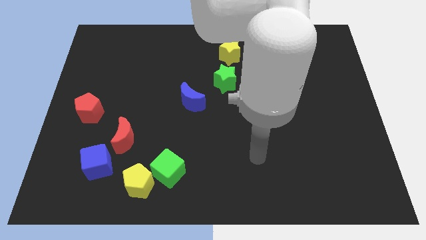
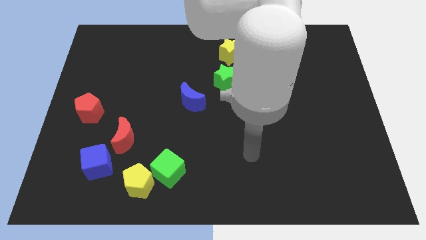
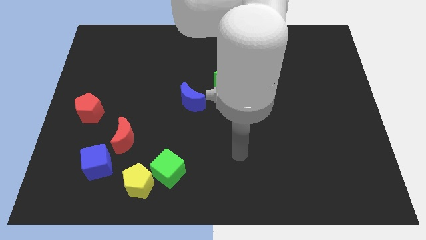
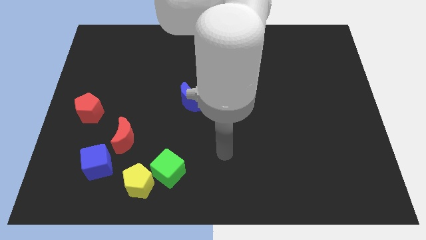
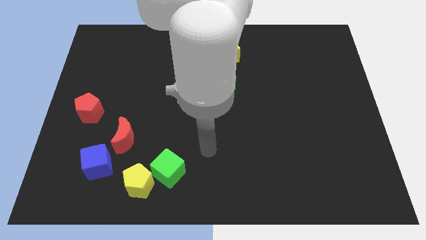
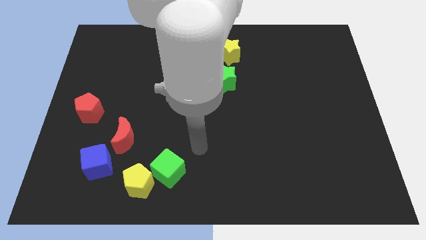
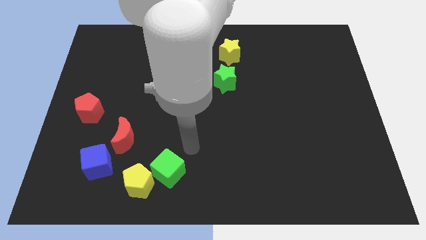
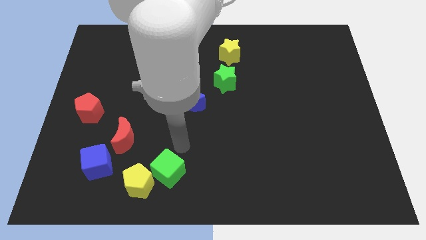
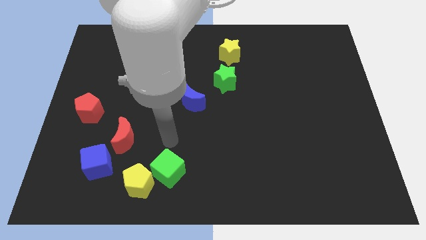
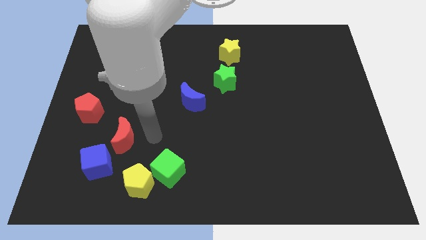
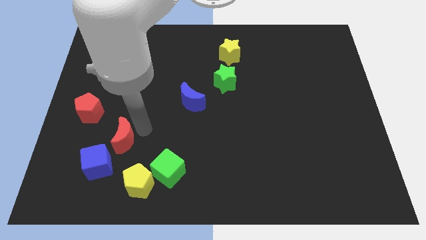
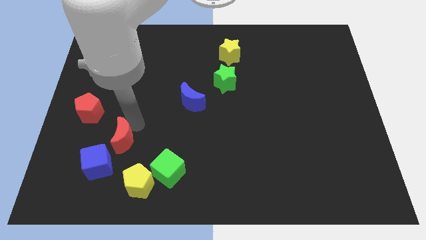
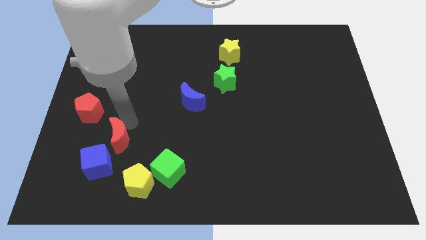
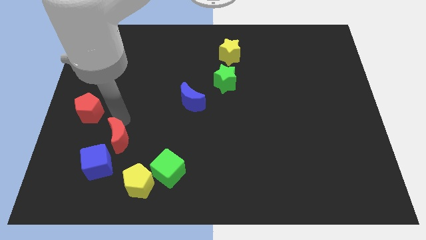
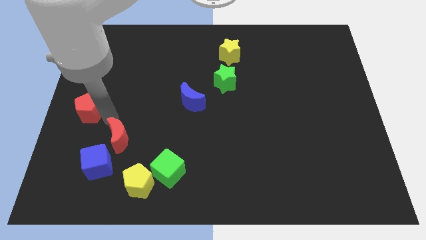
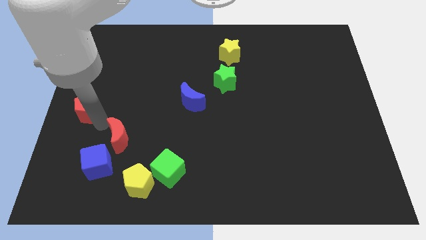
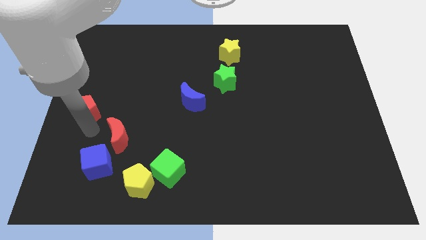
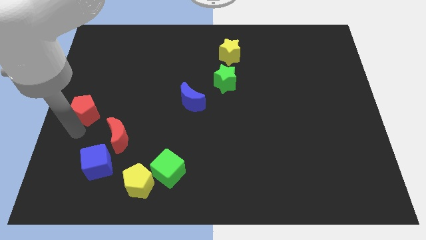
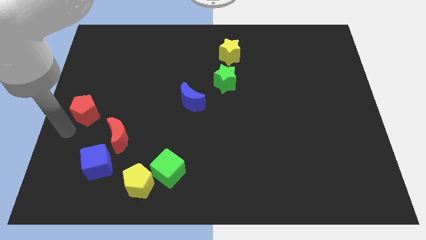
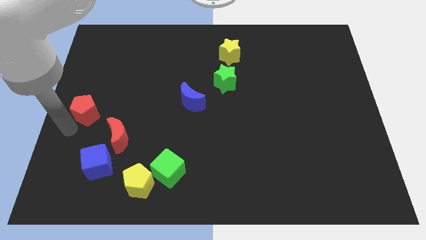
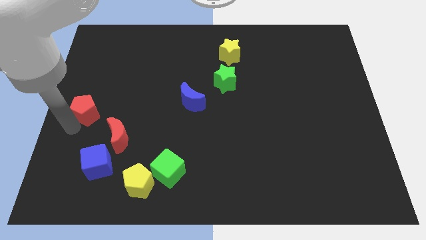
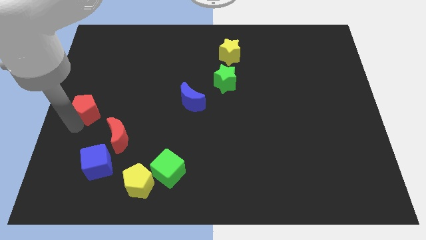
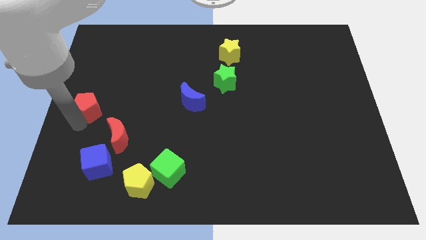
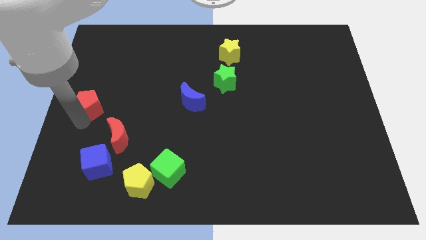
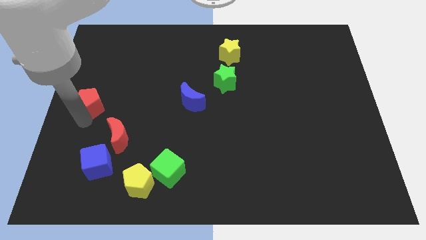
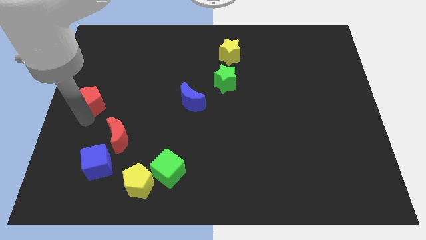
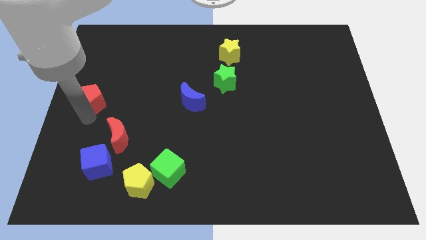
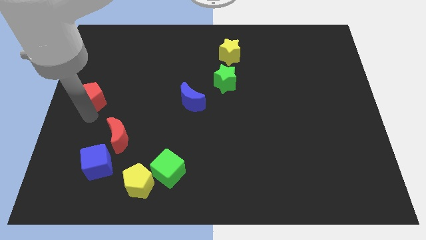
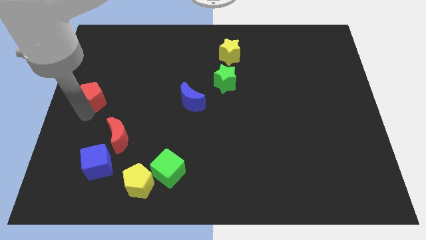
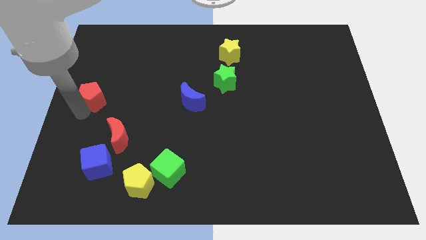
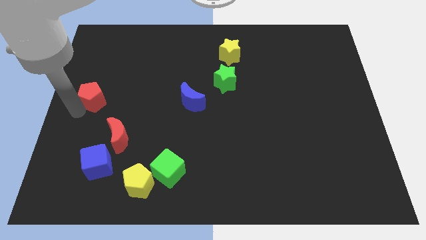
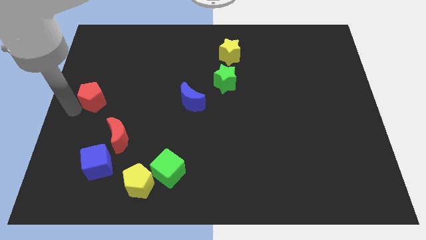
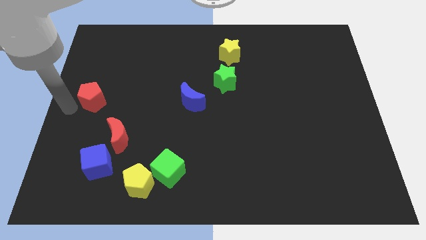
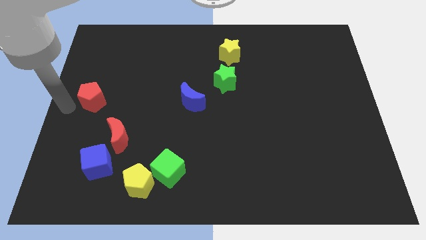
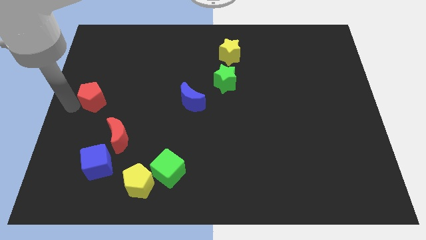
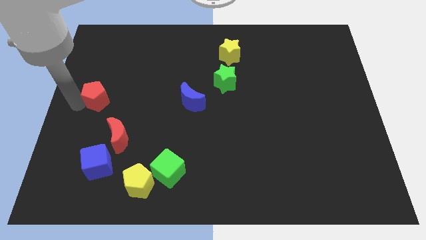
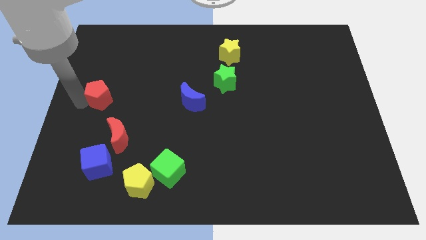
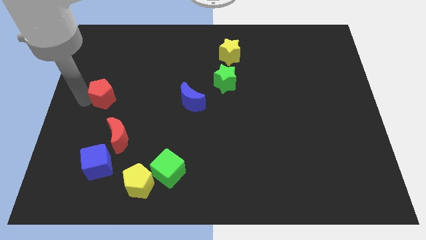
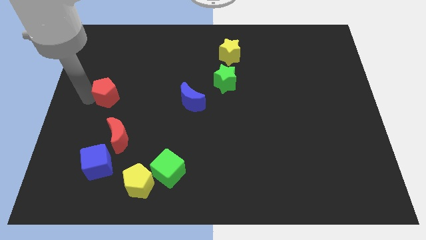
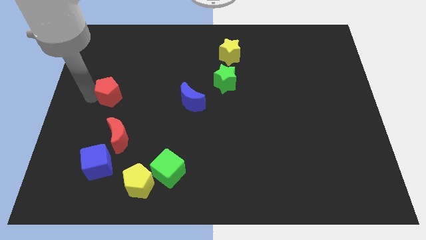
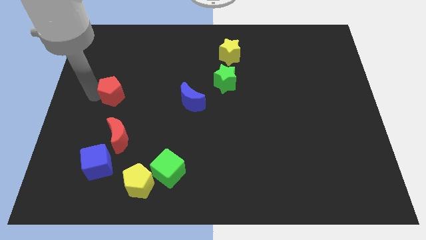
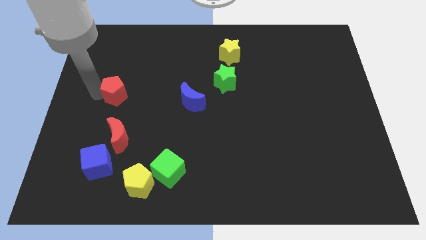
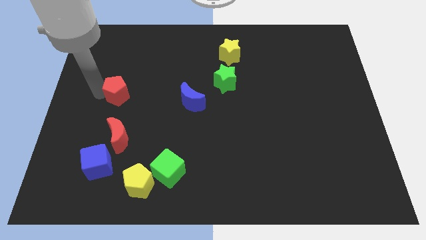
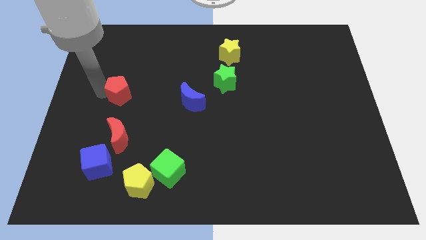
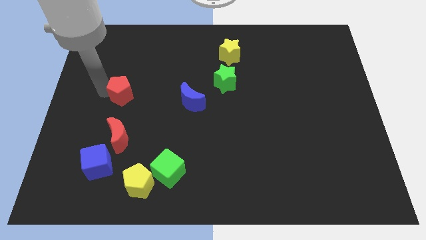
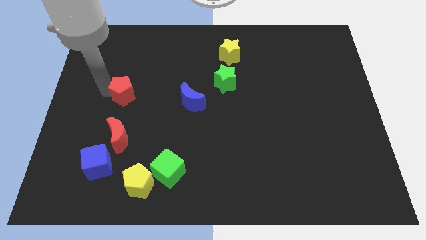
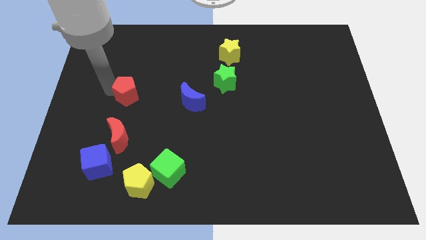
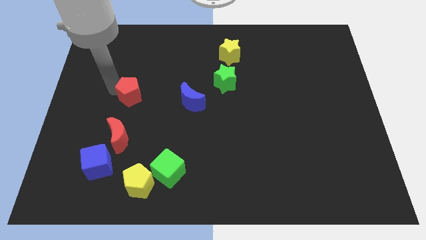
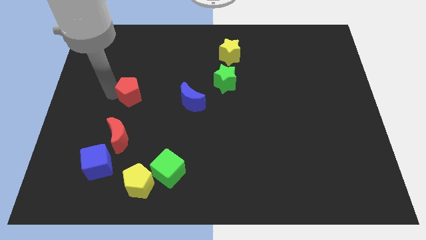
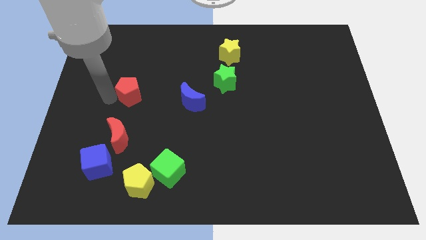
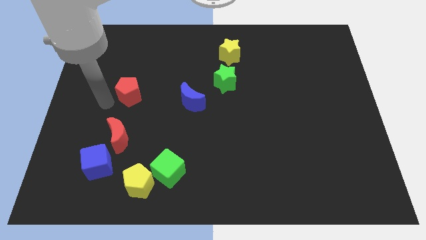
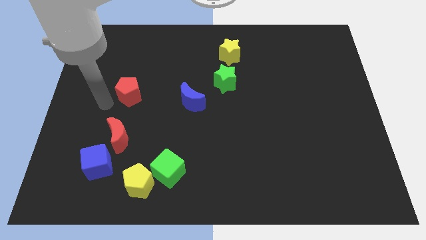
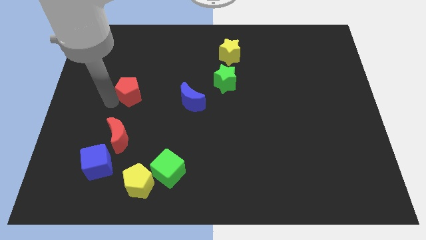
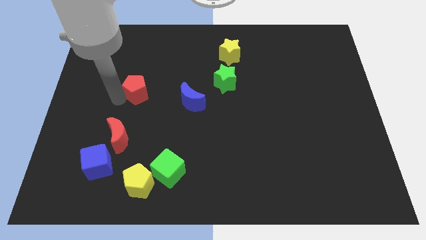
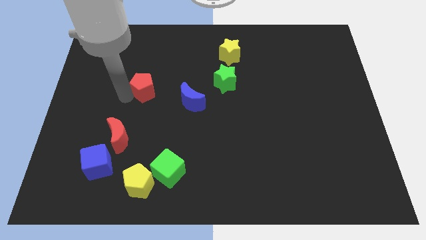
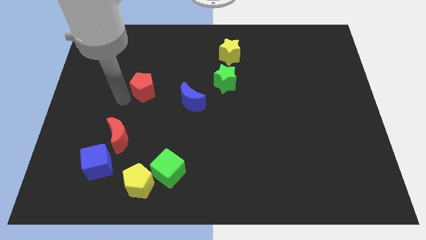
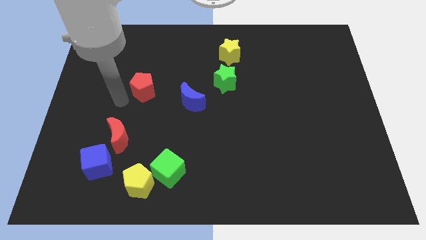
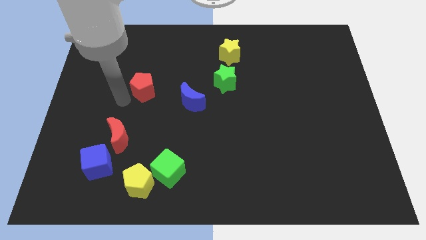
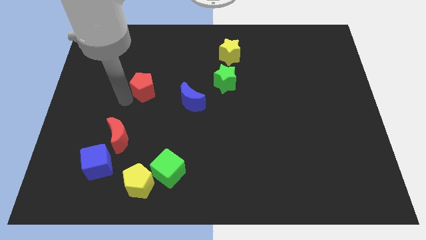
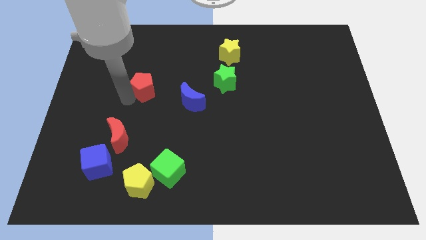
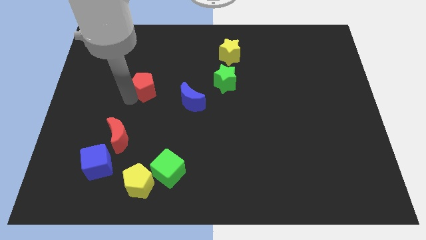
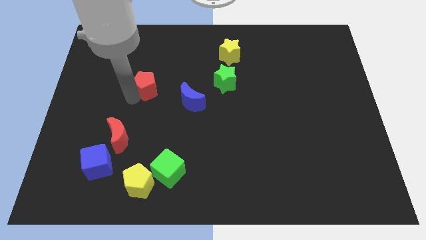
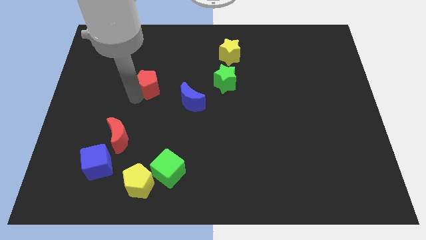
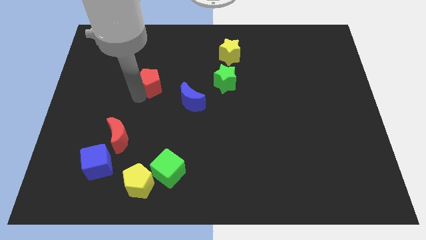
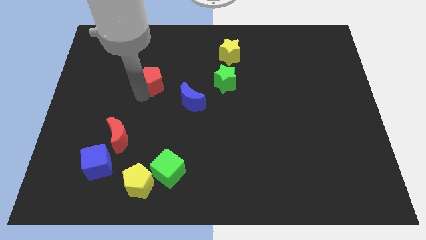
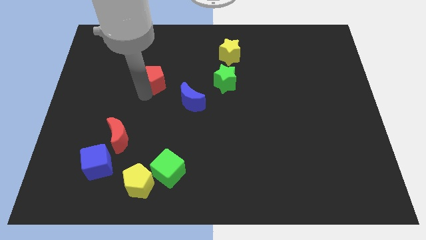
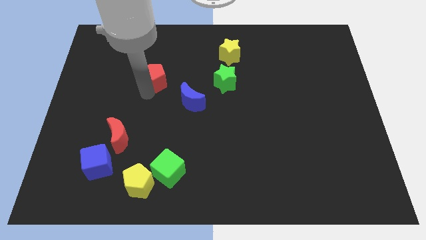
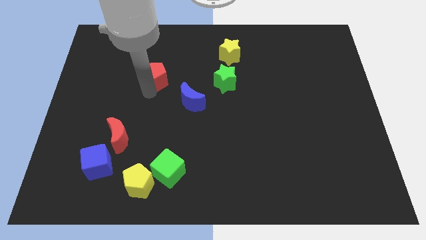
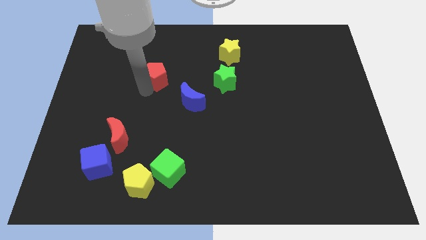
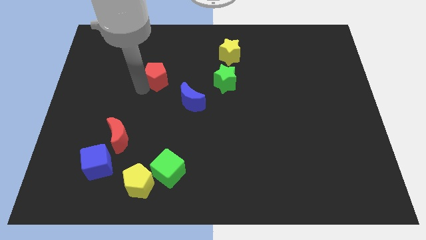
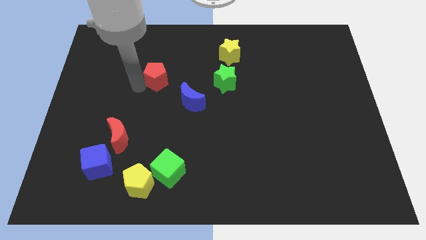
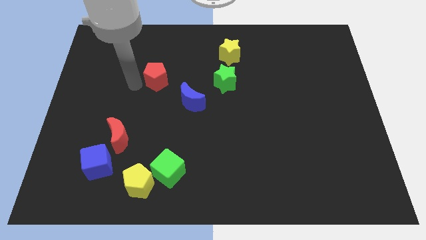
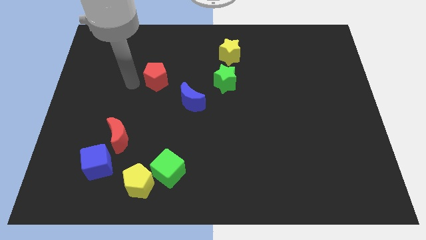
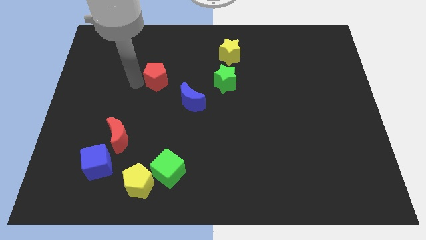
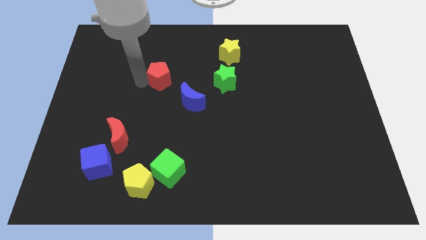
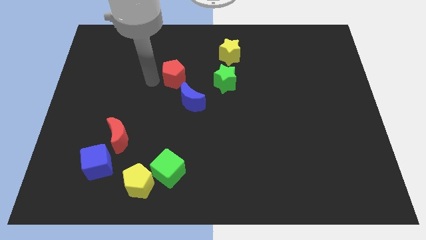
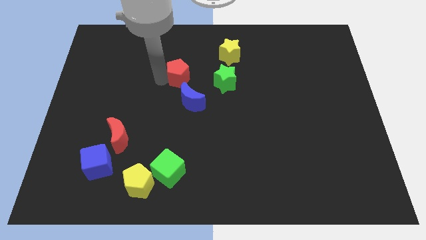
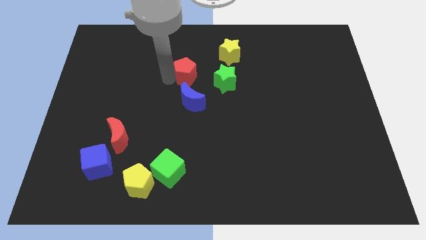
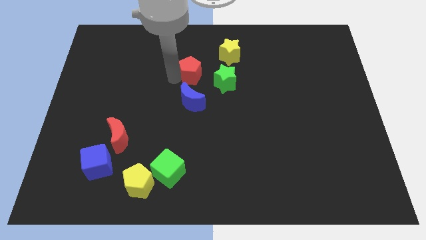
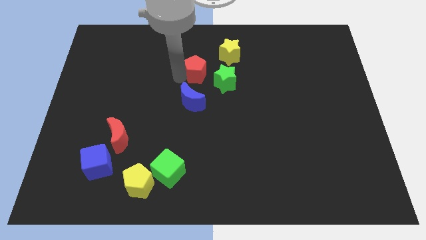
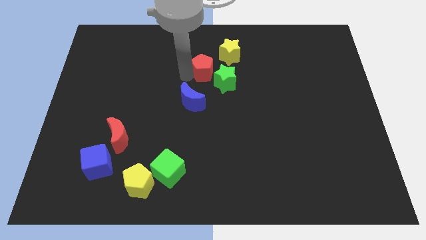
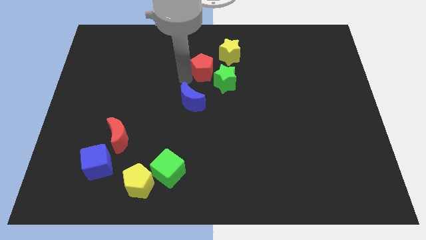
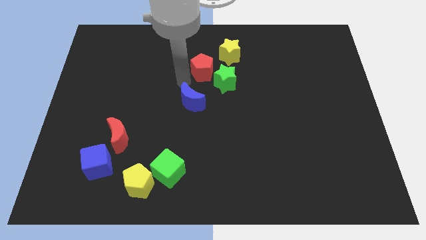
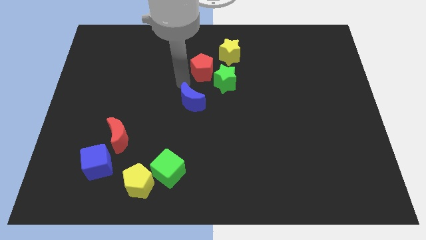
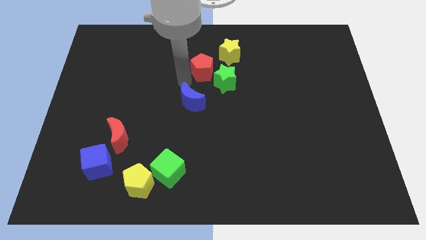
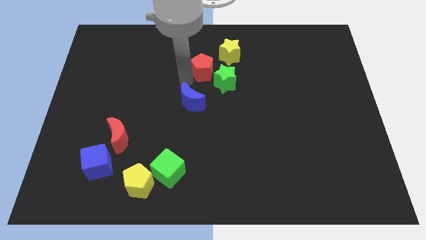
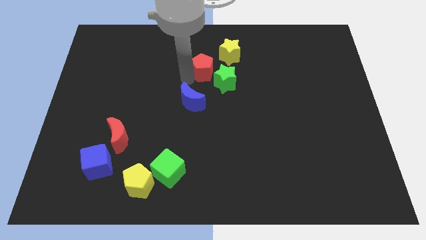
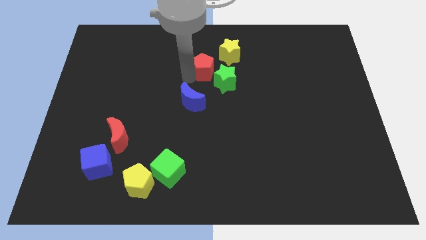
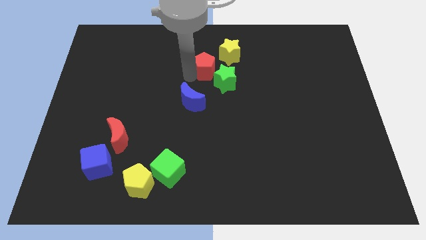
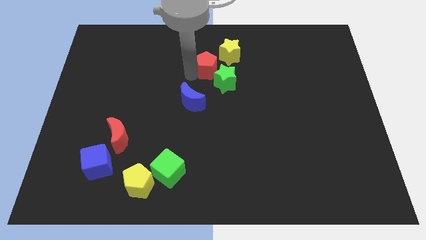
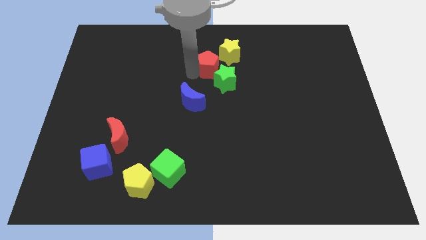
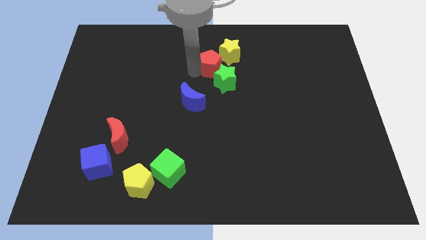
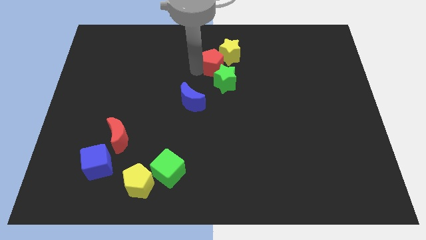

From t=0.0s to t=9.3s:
move the red pentagon to the yellow star
